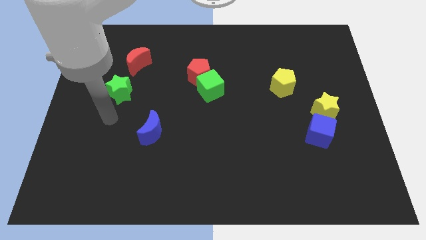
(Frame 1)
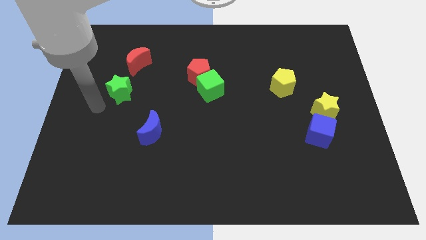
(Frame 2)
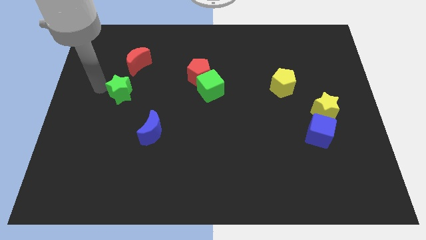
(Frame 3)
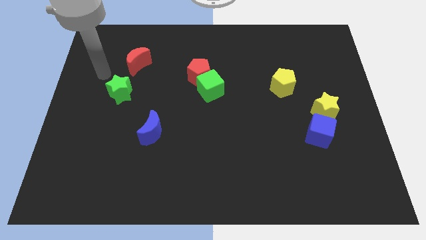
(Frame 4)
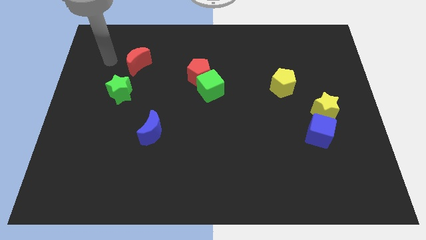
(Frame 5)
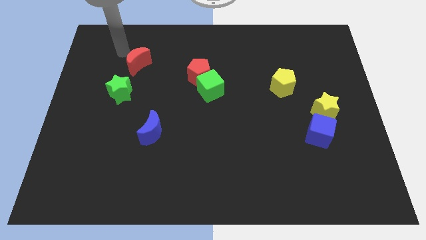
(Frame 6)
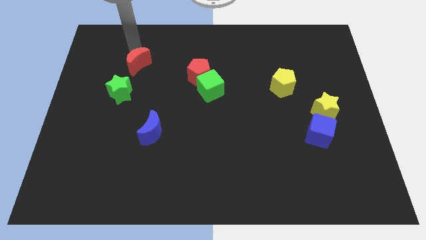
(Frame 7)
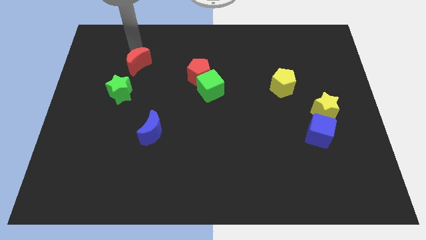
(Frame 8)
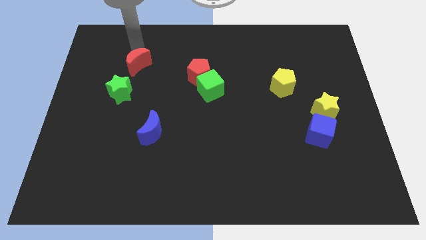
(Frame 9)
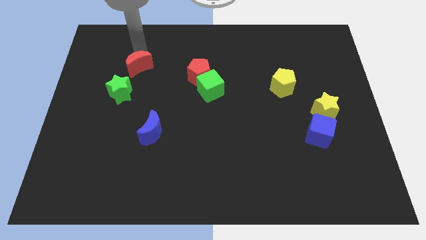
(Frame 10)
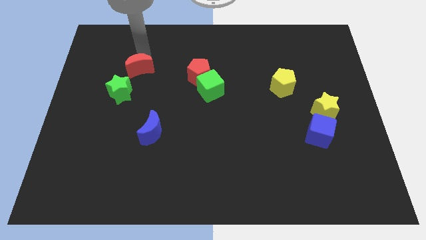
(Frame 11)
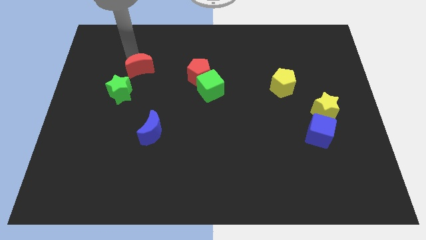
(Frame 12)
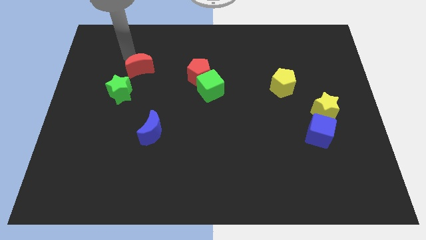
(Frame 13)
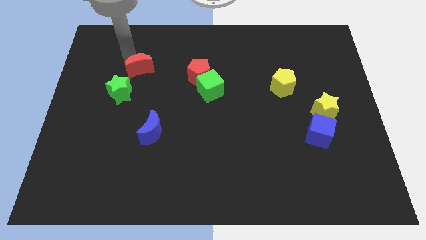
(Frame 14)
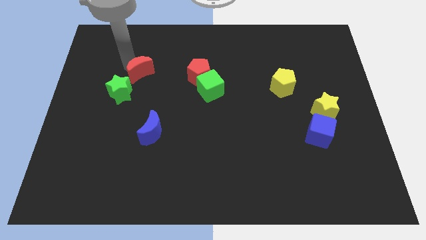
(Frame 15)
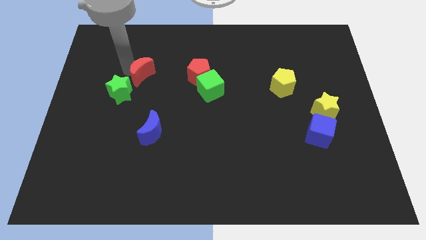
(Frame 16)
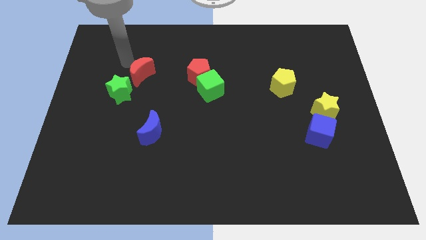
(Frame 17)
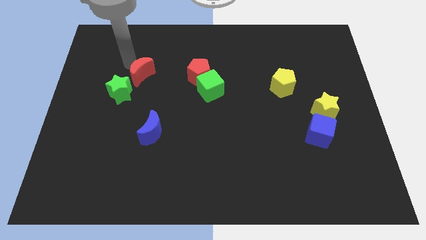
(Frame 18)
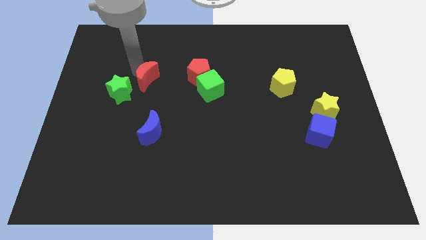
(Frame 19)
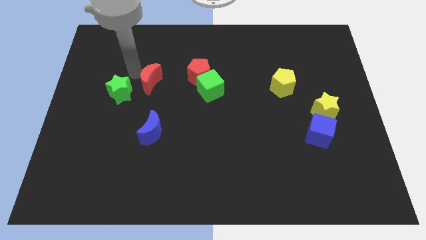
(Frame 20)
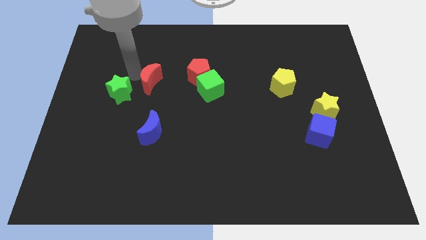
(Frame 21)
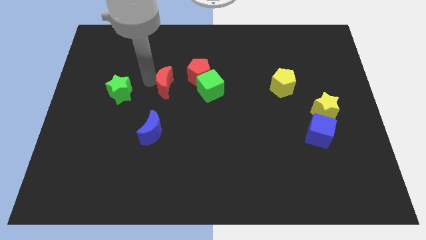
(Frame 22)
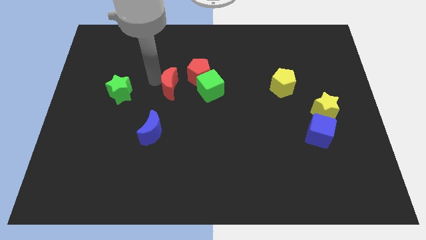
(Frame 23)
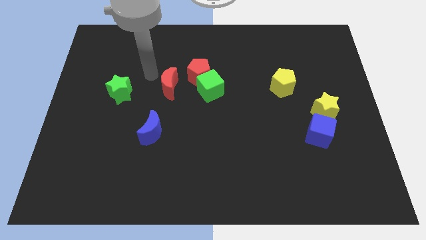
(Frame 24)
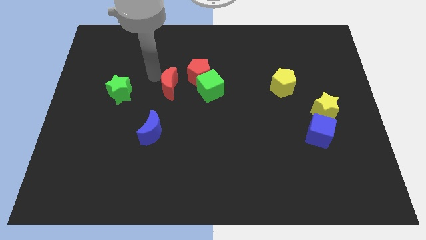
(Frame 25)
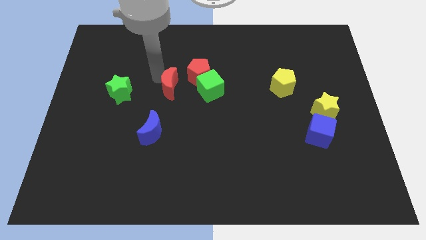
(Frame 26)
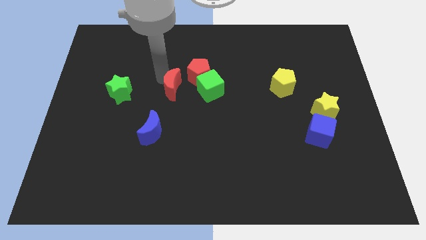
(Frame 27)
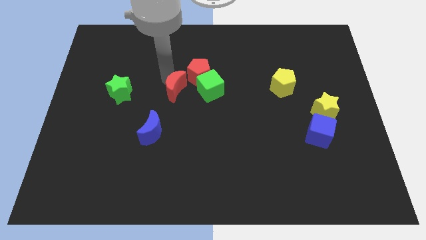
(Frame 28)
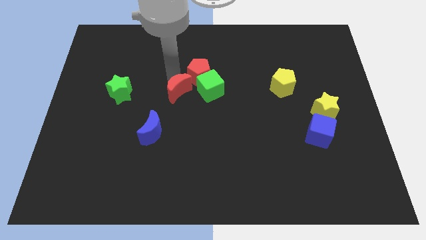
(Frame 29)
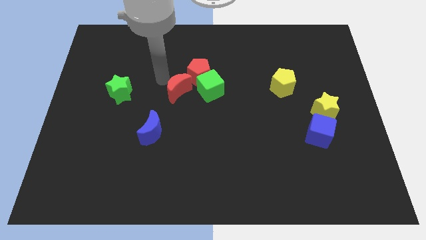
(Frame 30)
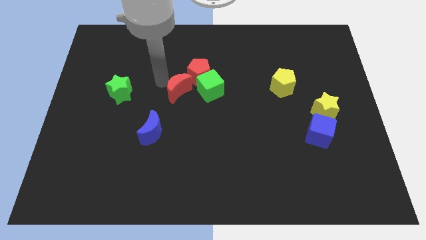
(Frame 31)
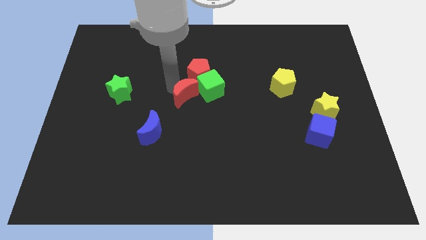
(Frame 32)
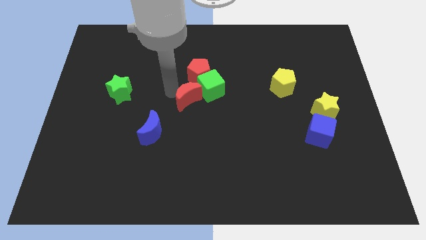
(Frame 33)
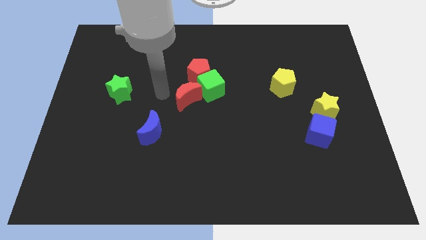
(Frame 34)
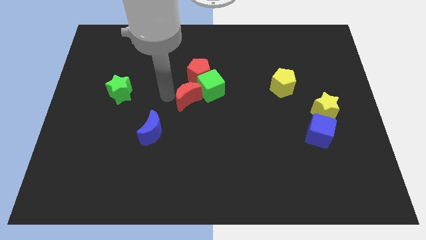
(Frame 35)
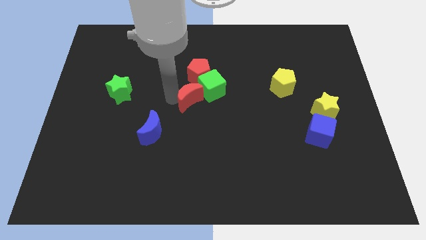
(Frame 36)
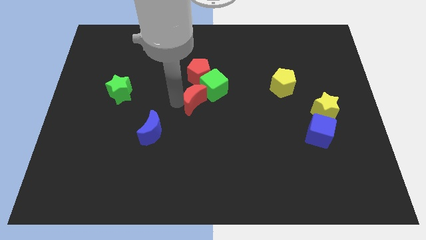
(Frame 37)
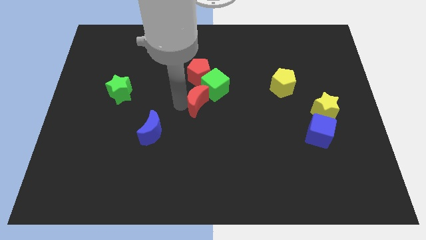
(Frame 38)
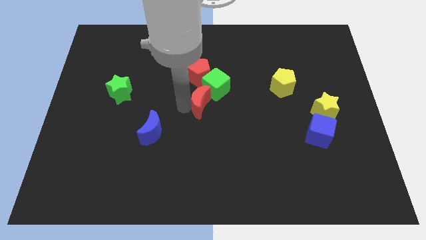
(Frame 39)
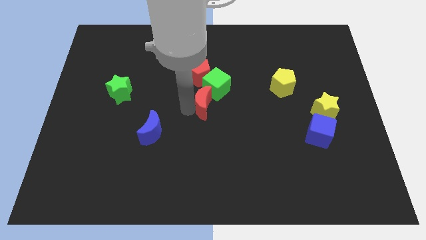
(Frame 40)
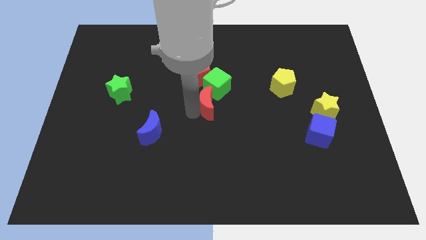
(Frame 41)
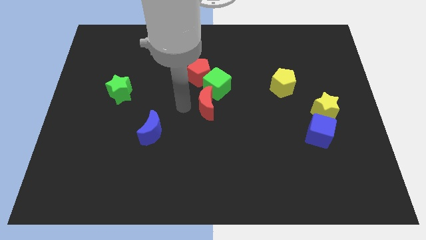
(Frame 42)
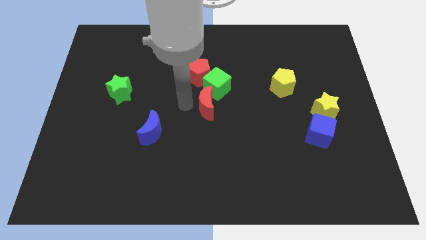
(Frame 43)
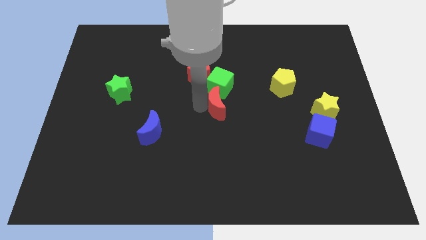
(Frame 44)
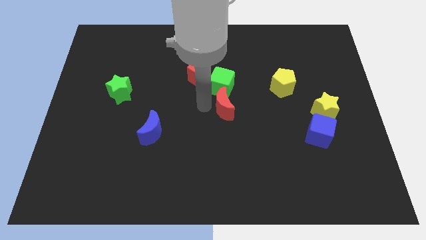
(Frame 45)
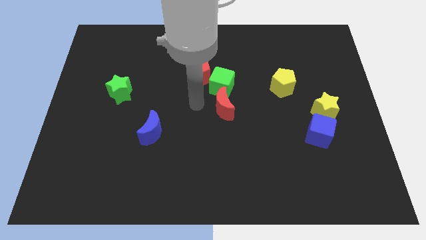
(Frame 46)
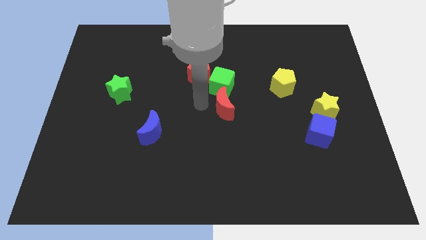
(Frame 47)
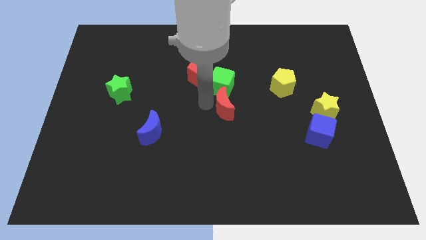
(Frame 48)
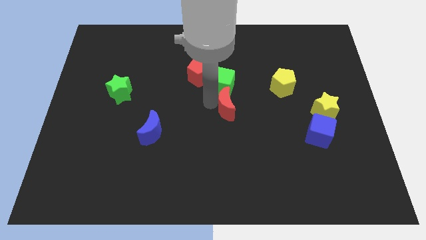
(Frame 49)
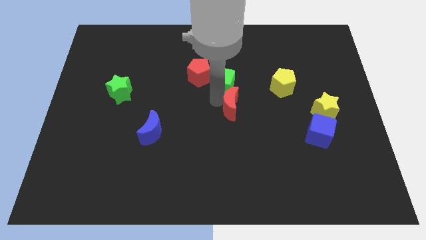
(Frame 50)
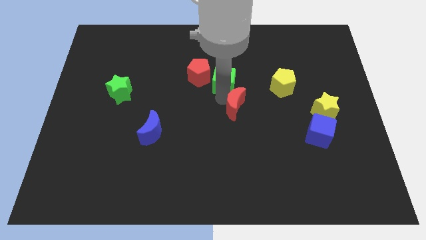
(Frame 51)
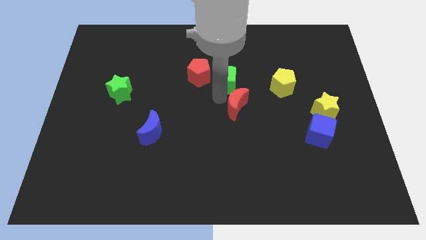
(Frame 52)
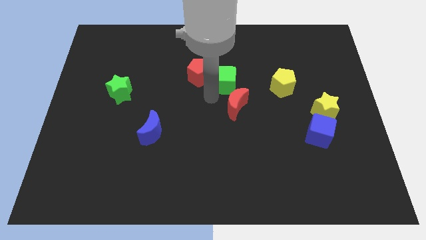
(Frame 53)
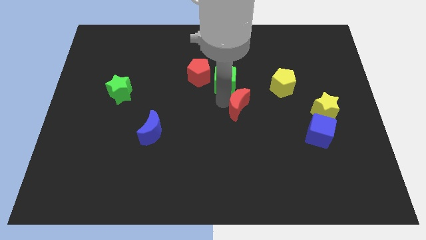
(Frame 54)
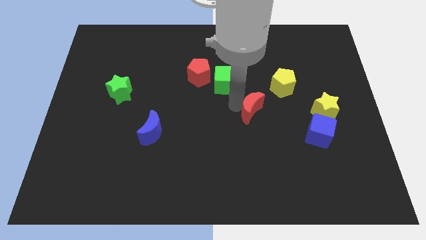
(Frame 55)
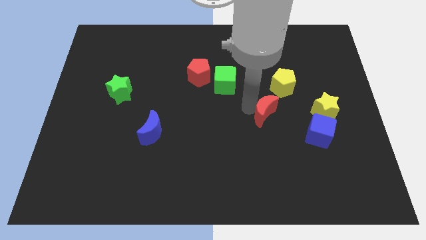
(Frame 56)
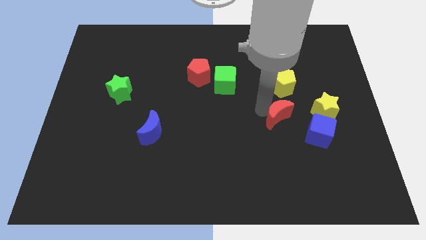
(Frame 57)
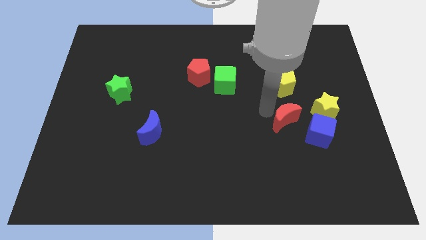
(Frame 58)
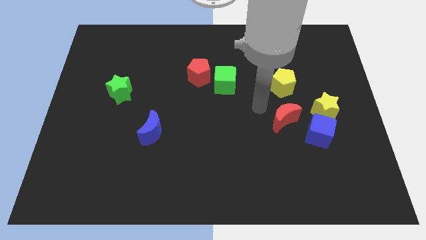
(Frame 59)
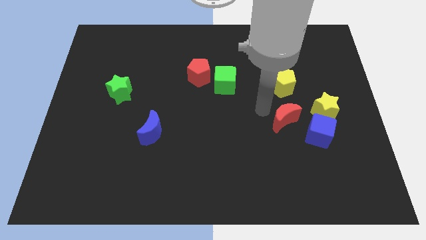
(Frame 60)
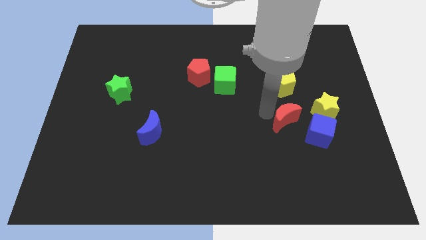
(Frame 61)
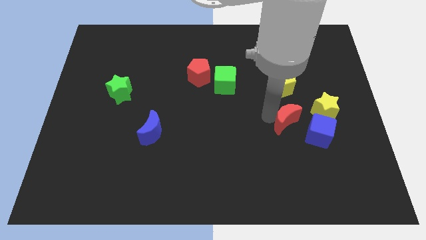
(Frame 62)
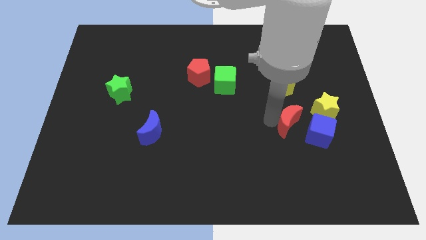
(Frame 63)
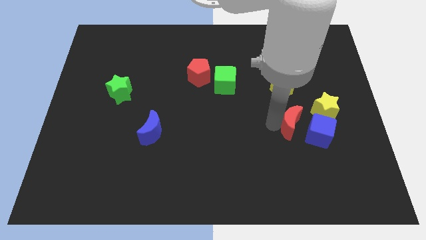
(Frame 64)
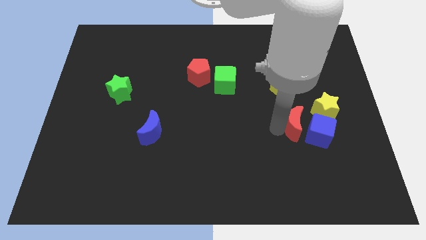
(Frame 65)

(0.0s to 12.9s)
put the red moon towards the blue cube

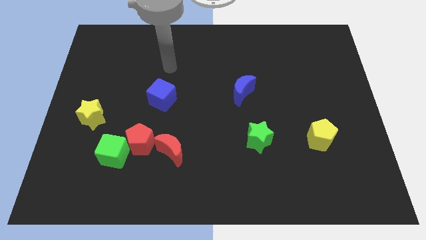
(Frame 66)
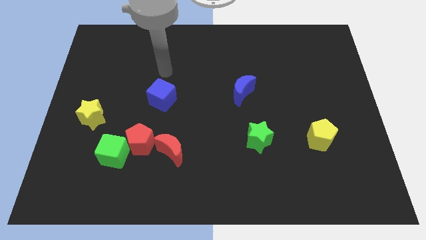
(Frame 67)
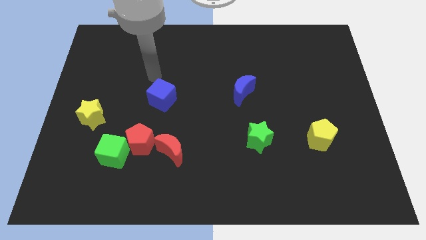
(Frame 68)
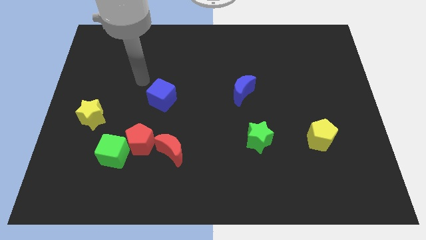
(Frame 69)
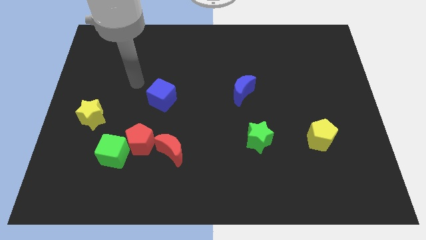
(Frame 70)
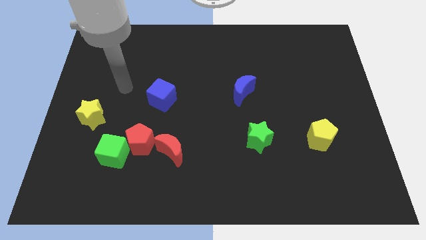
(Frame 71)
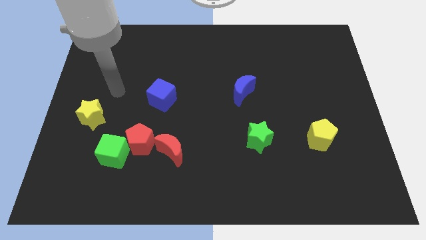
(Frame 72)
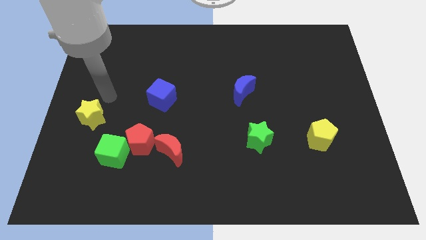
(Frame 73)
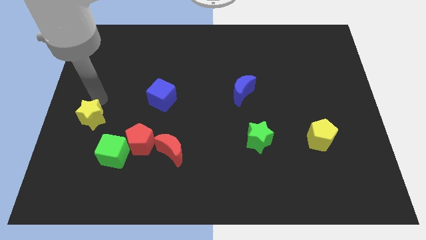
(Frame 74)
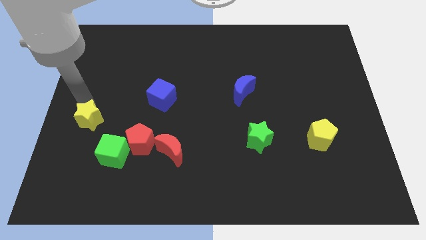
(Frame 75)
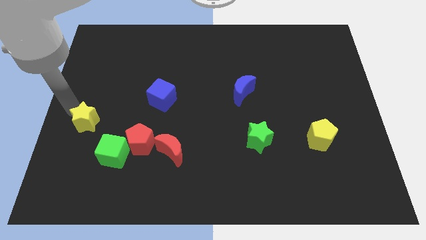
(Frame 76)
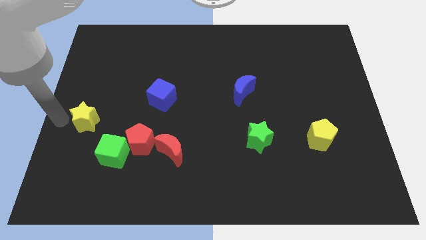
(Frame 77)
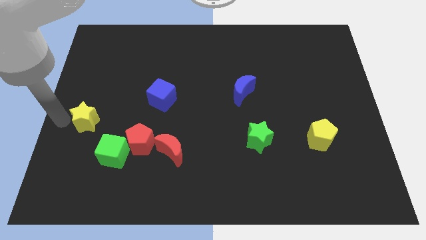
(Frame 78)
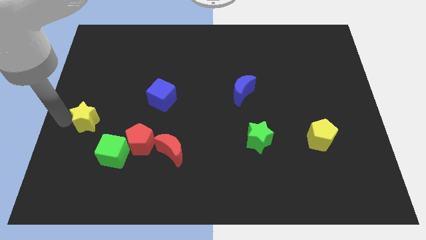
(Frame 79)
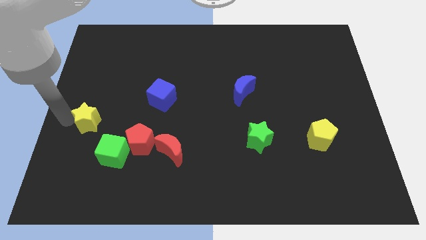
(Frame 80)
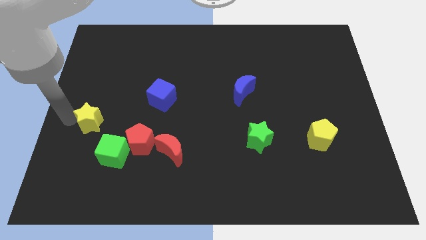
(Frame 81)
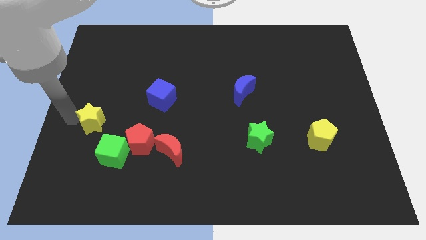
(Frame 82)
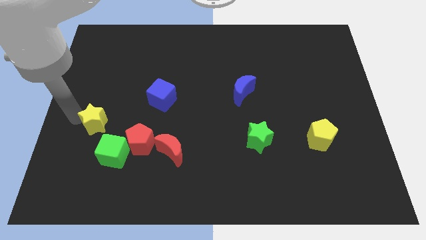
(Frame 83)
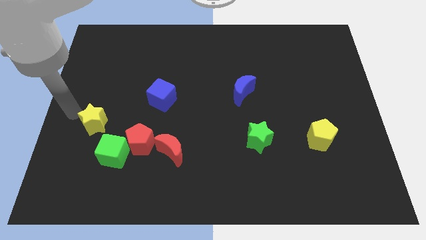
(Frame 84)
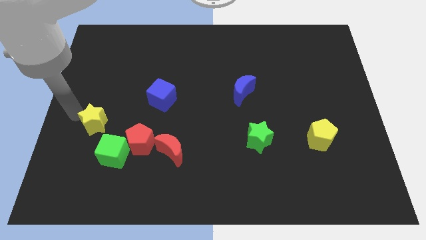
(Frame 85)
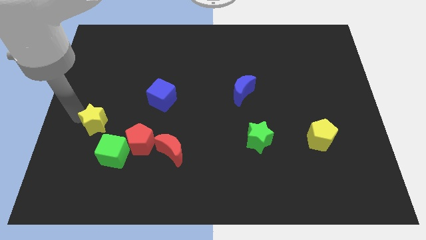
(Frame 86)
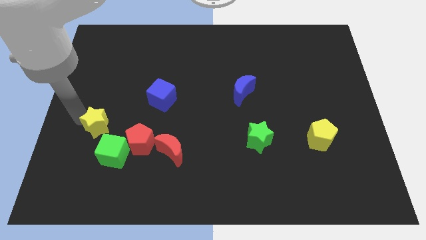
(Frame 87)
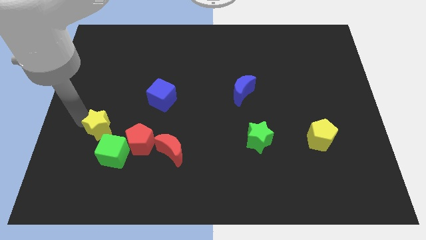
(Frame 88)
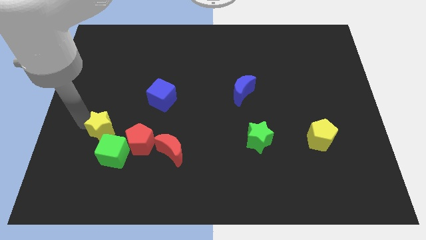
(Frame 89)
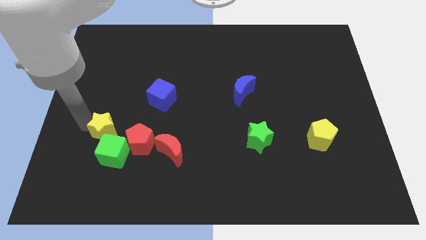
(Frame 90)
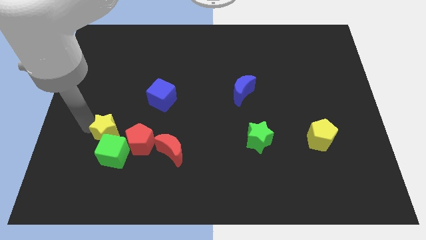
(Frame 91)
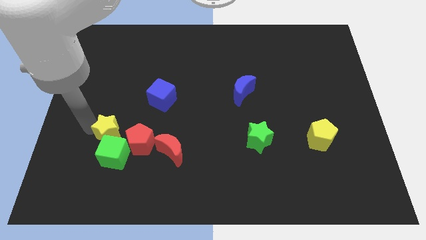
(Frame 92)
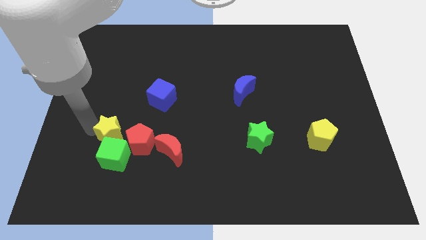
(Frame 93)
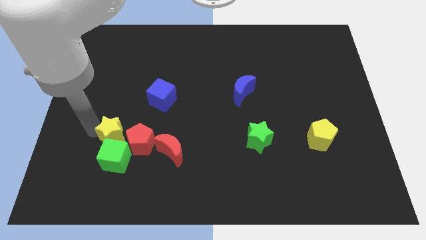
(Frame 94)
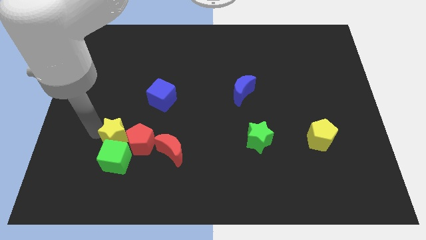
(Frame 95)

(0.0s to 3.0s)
slide the yellow star towards the red pentagon
